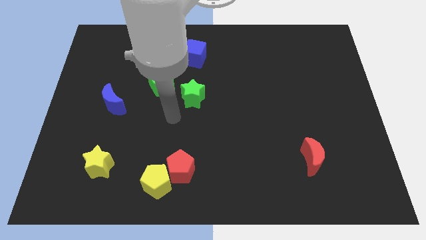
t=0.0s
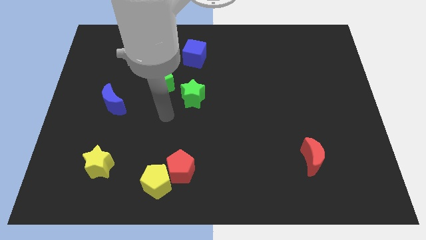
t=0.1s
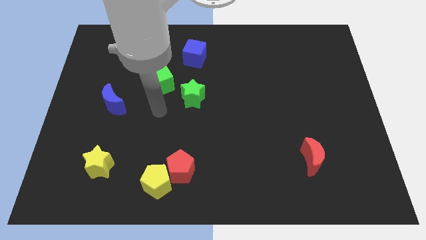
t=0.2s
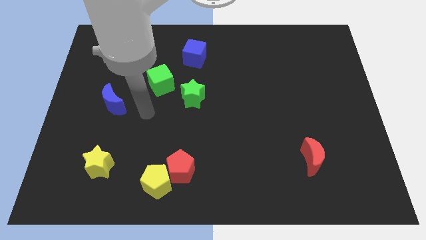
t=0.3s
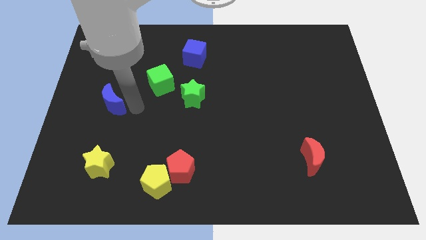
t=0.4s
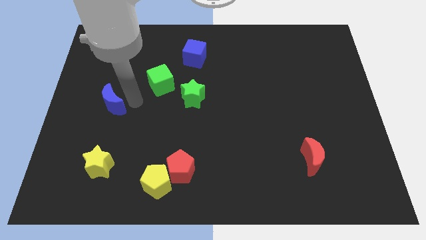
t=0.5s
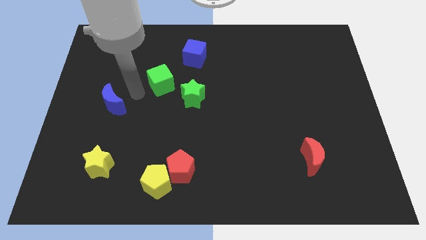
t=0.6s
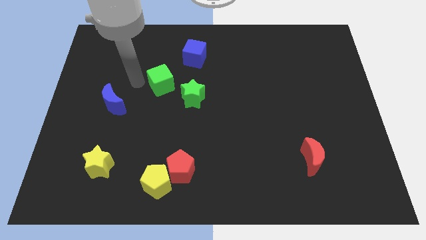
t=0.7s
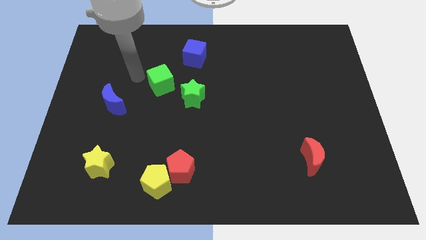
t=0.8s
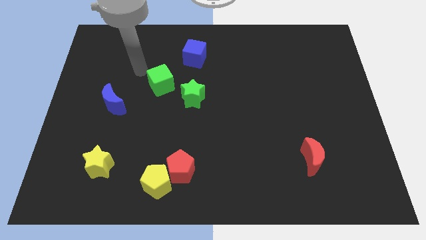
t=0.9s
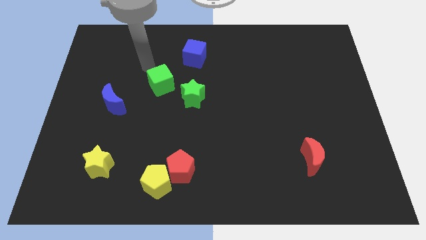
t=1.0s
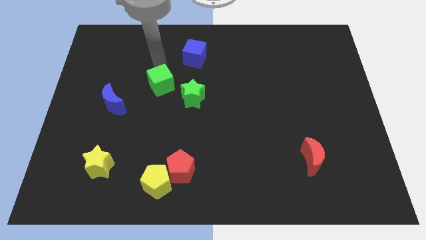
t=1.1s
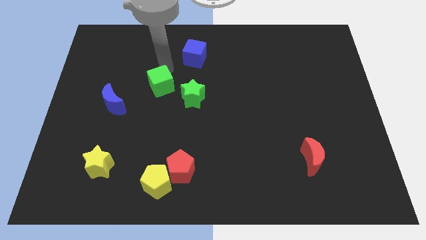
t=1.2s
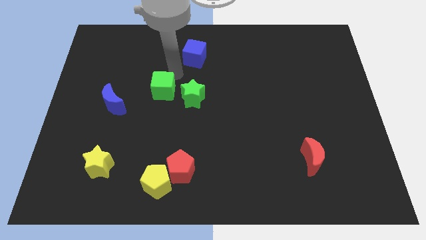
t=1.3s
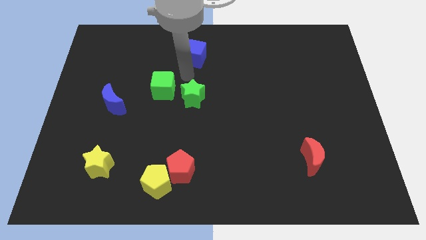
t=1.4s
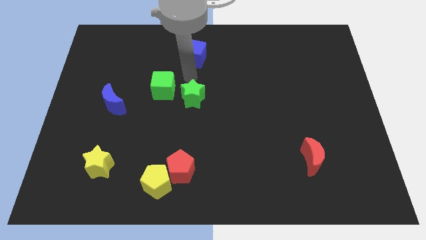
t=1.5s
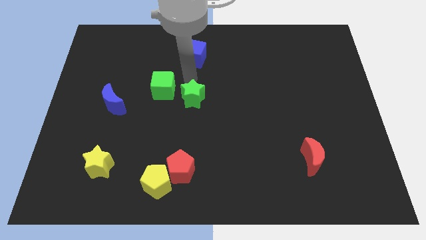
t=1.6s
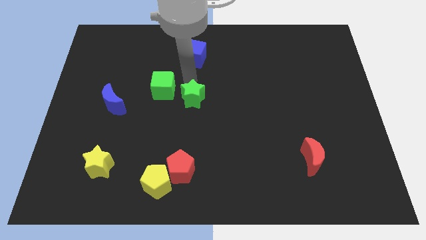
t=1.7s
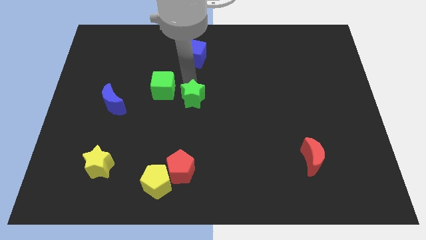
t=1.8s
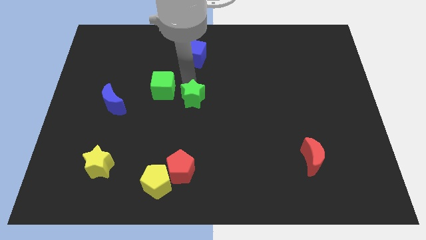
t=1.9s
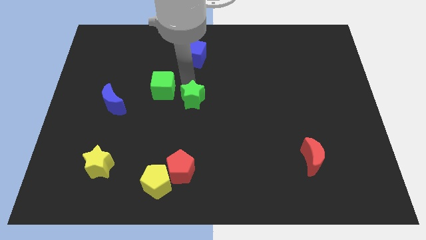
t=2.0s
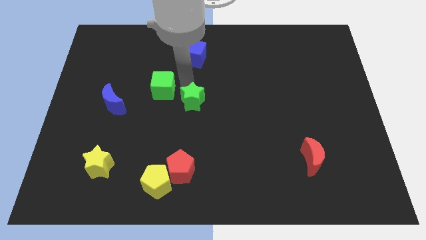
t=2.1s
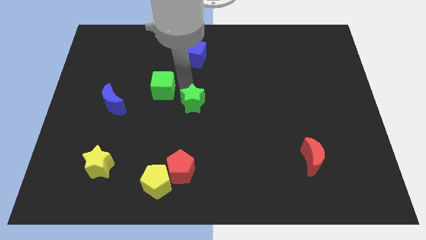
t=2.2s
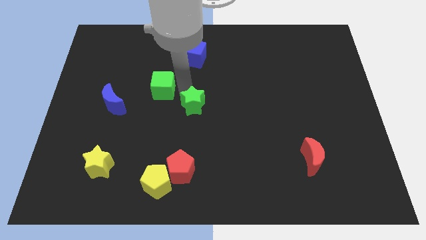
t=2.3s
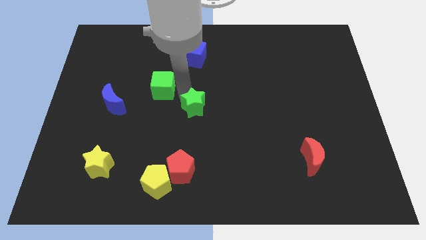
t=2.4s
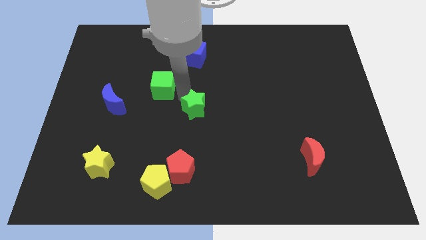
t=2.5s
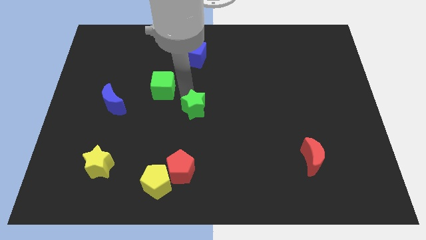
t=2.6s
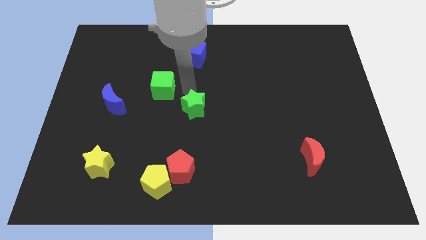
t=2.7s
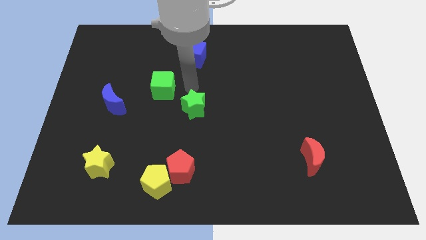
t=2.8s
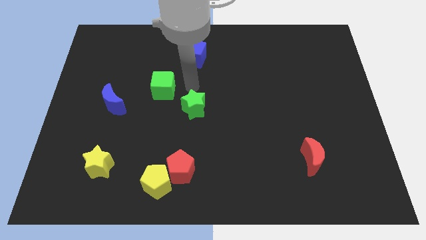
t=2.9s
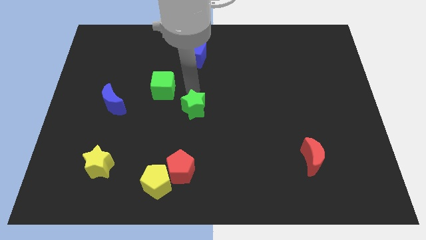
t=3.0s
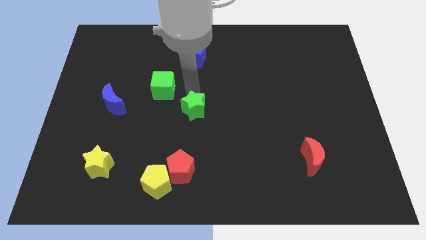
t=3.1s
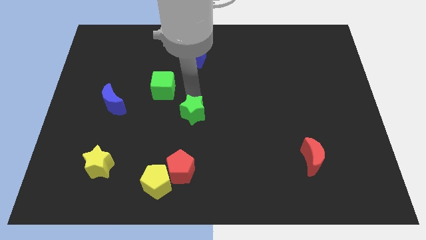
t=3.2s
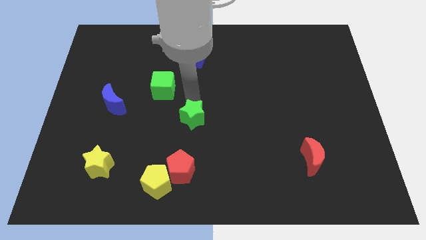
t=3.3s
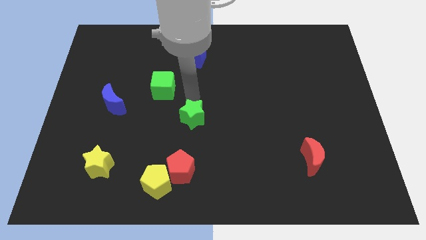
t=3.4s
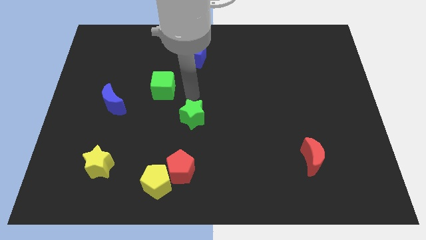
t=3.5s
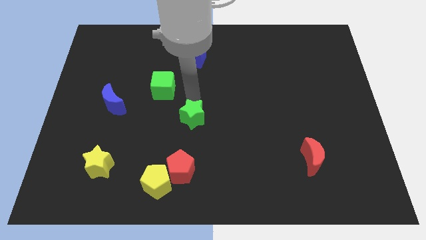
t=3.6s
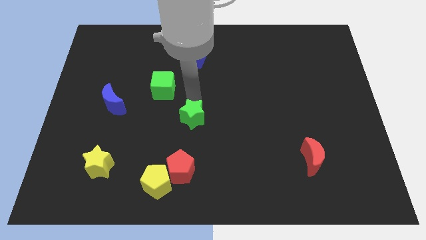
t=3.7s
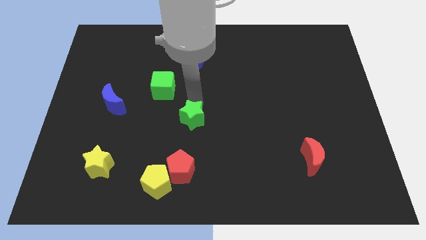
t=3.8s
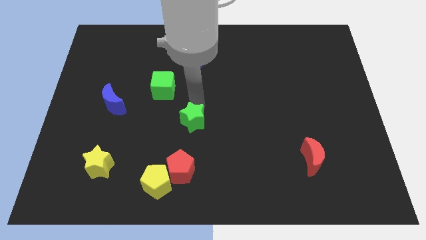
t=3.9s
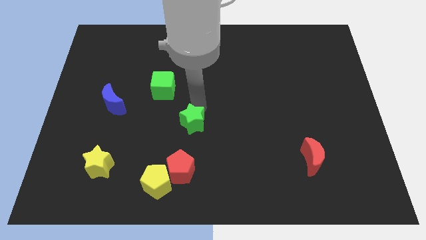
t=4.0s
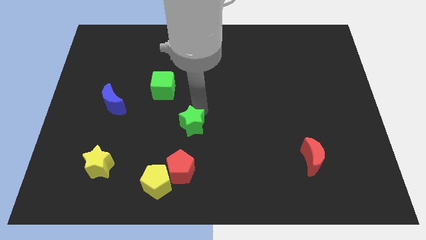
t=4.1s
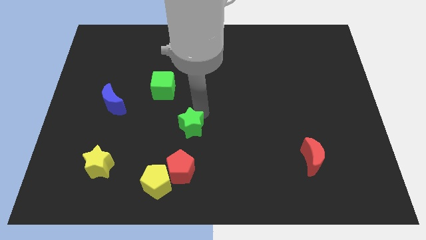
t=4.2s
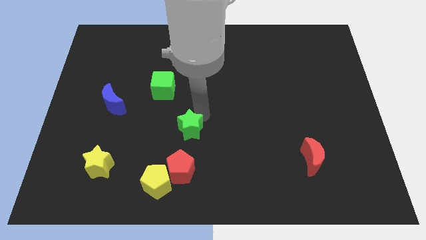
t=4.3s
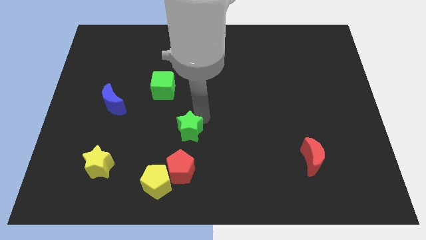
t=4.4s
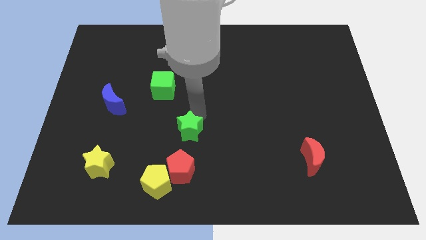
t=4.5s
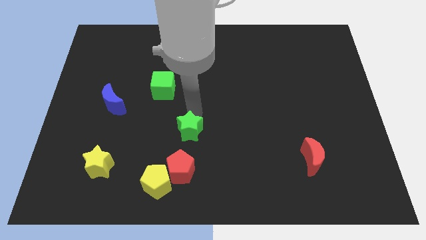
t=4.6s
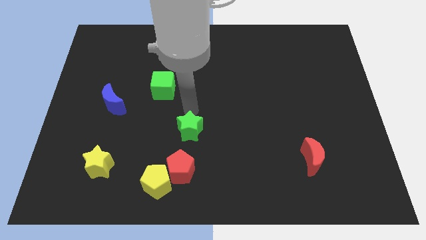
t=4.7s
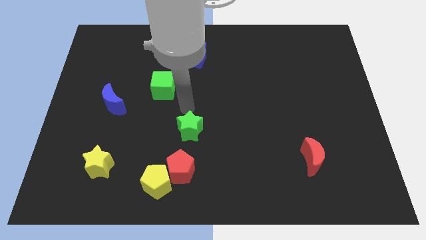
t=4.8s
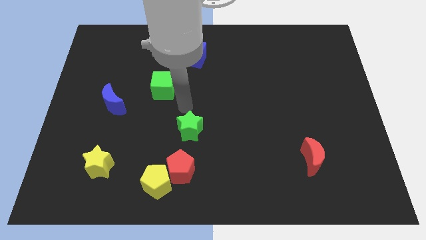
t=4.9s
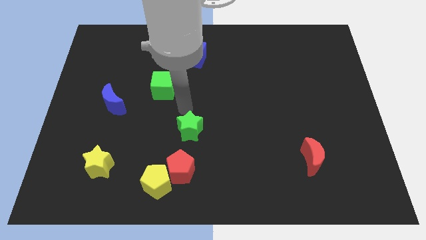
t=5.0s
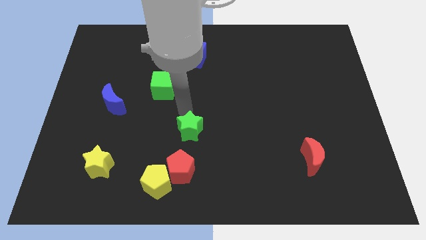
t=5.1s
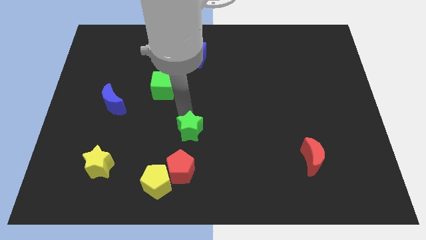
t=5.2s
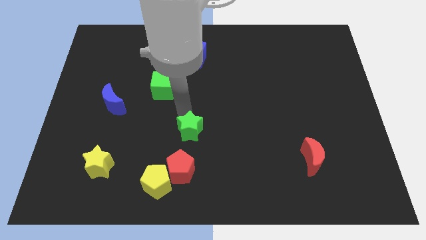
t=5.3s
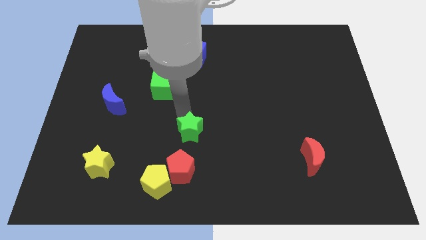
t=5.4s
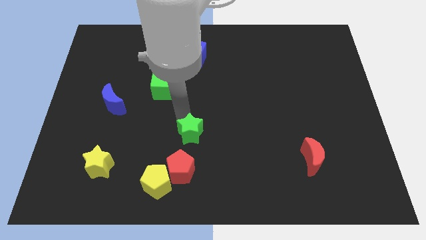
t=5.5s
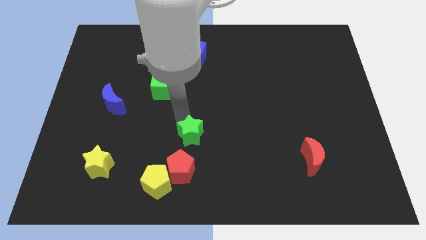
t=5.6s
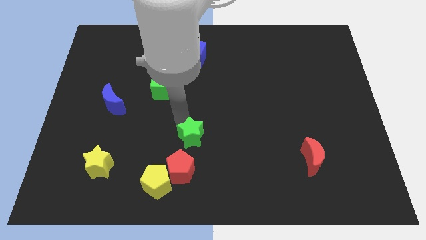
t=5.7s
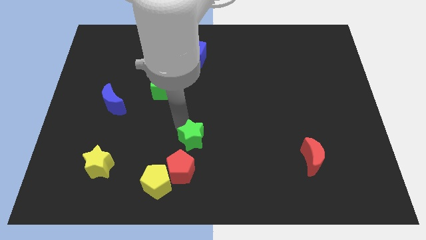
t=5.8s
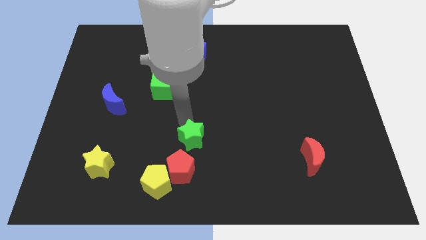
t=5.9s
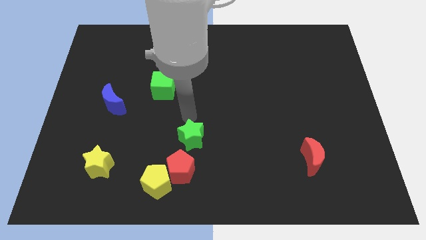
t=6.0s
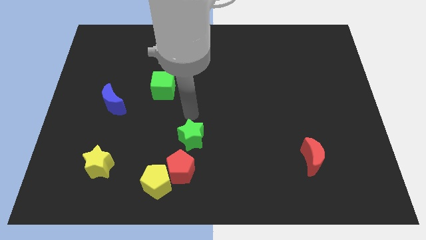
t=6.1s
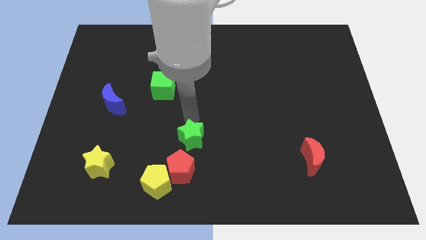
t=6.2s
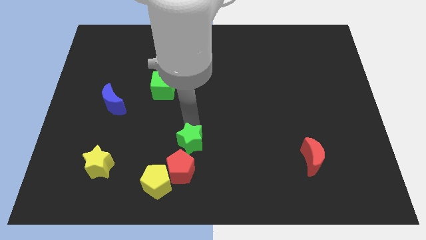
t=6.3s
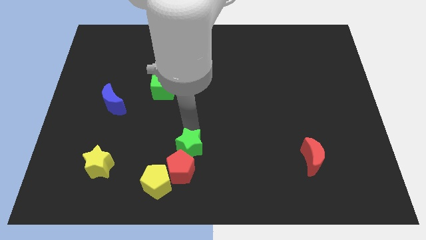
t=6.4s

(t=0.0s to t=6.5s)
put the green star close to the red pentagon

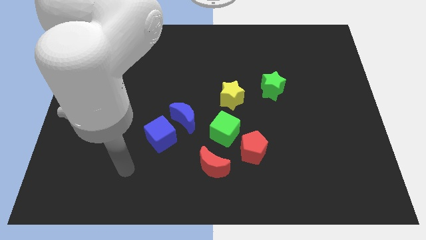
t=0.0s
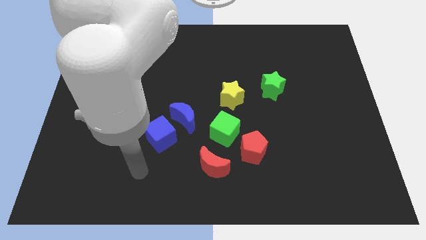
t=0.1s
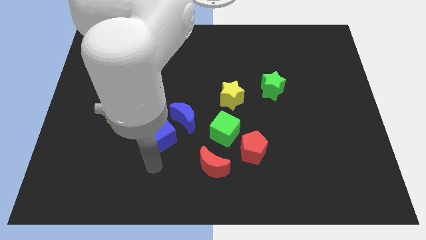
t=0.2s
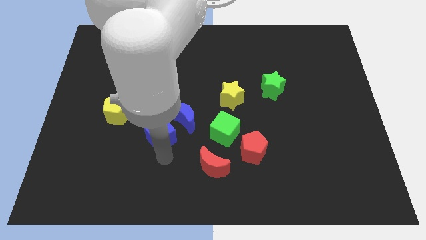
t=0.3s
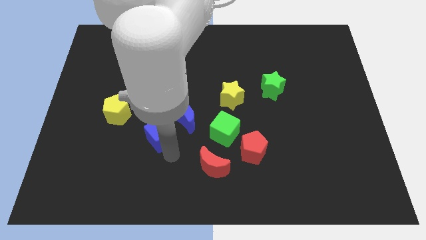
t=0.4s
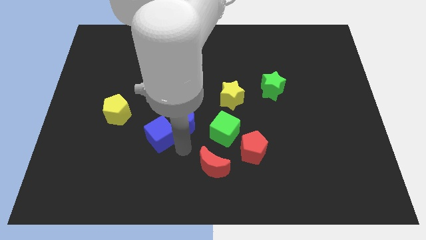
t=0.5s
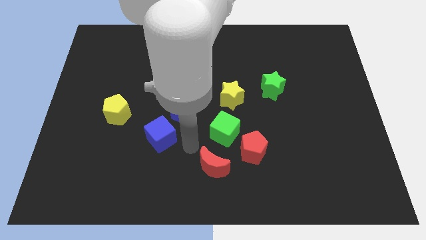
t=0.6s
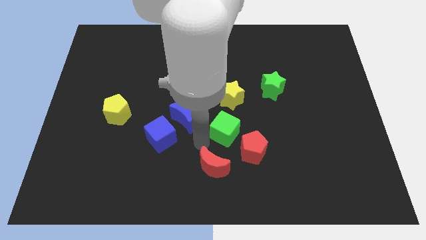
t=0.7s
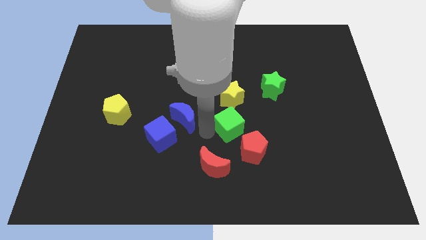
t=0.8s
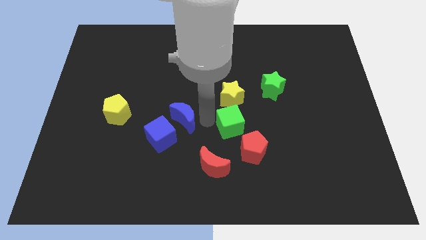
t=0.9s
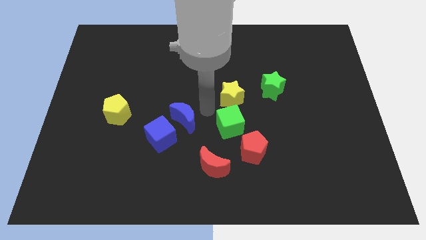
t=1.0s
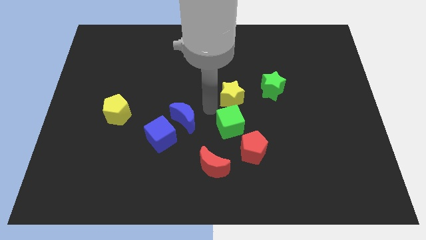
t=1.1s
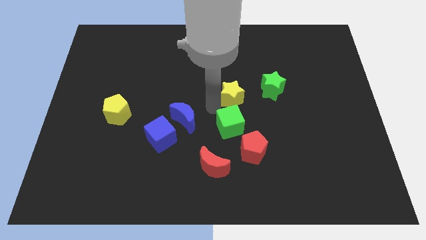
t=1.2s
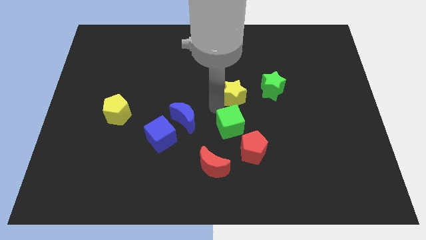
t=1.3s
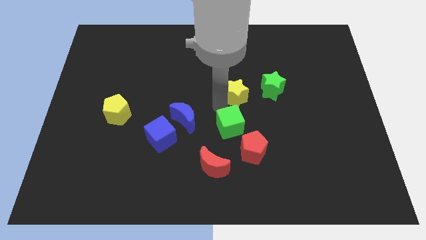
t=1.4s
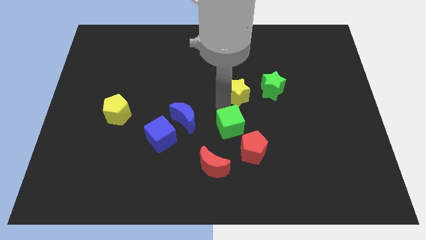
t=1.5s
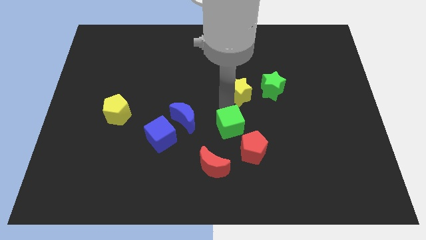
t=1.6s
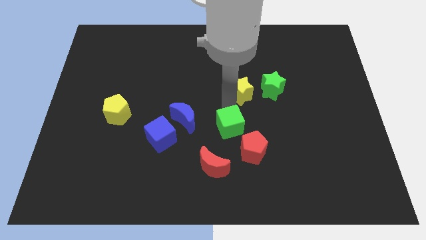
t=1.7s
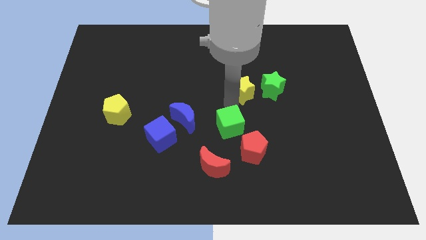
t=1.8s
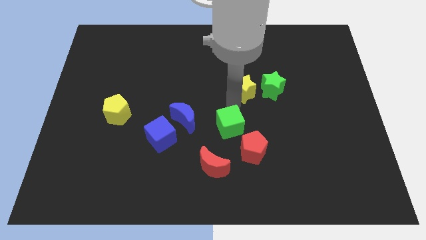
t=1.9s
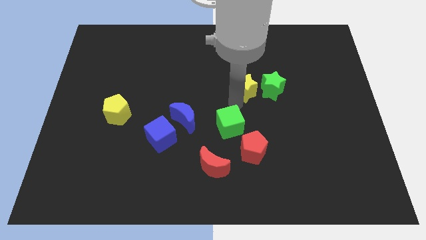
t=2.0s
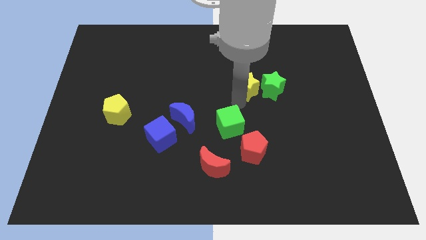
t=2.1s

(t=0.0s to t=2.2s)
move the yellow star close to the green star
